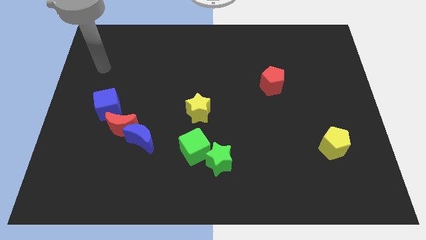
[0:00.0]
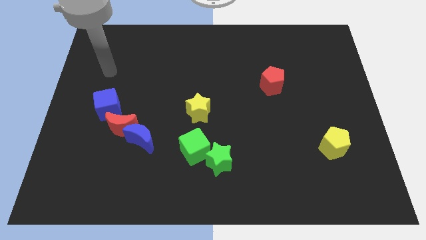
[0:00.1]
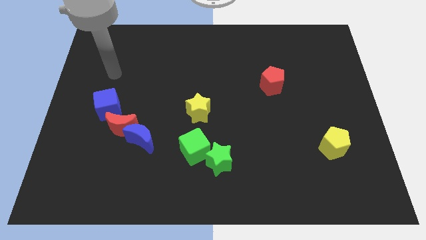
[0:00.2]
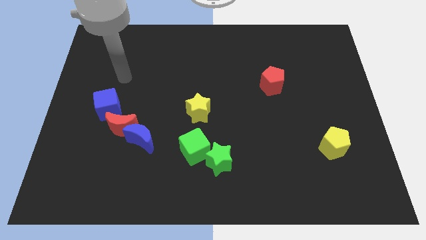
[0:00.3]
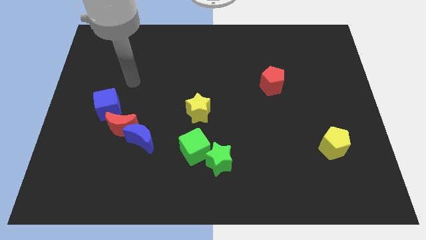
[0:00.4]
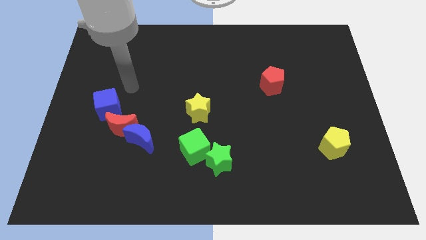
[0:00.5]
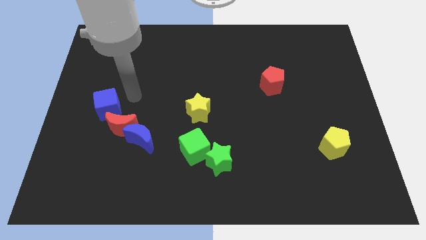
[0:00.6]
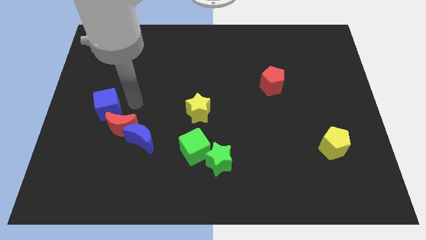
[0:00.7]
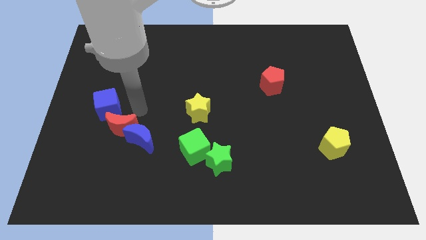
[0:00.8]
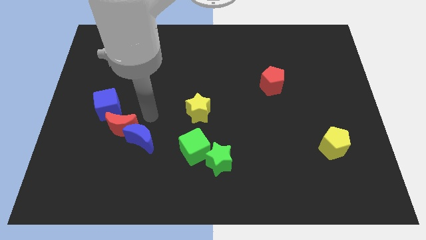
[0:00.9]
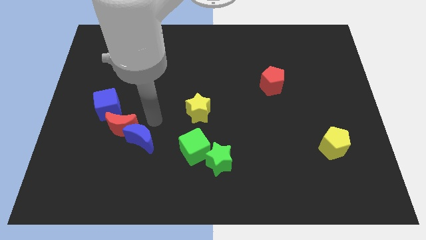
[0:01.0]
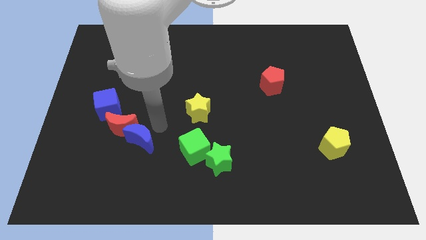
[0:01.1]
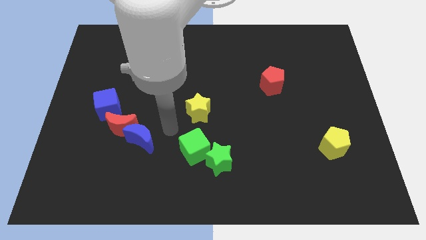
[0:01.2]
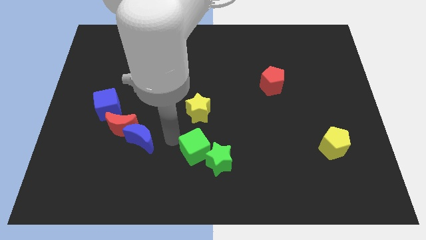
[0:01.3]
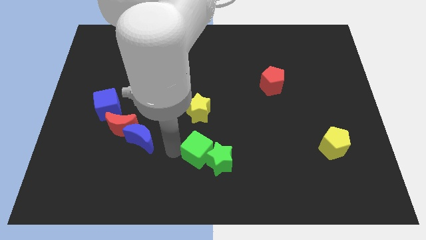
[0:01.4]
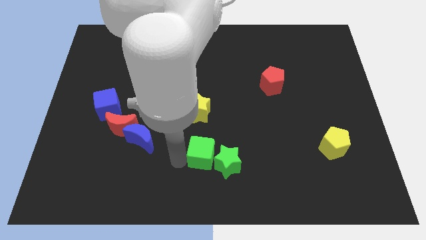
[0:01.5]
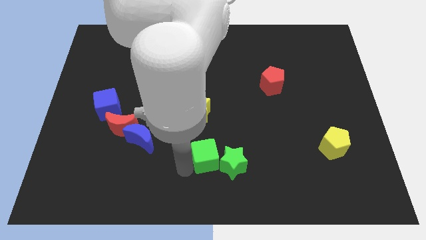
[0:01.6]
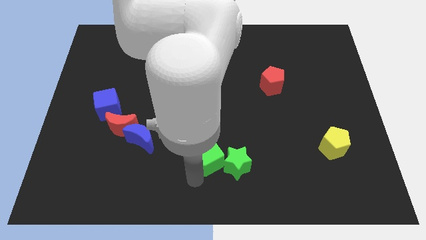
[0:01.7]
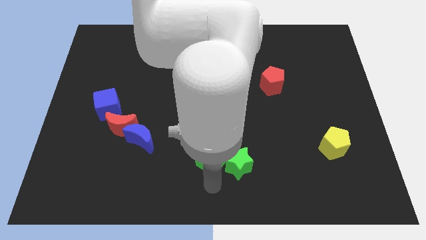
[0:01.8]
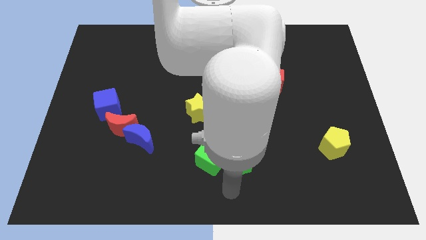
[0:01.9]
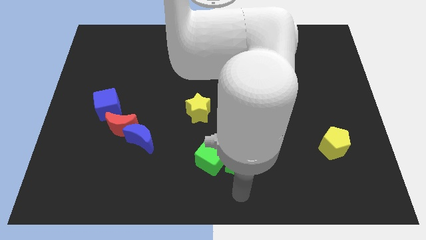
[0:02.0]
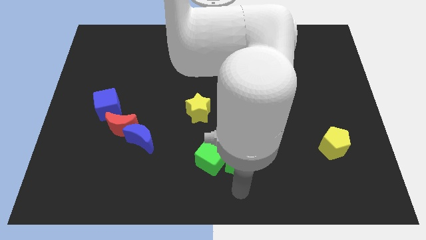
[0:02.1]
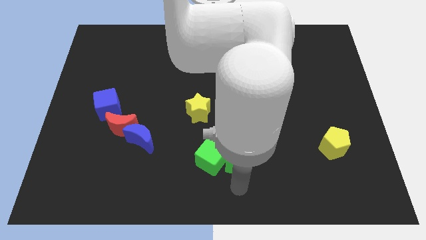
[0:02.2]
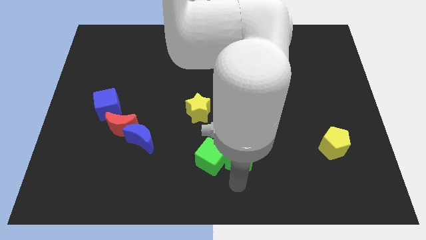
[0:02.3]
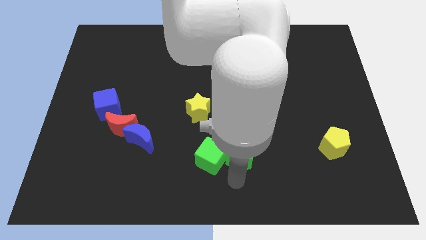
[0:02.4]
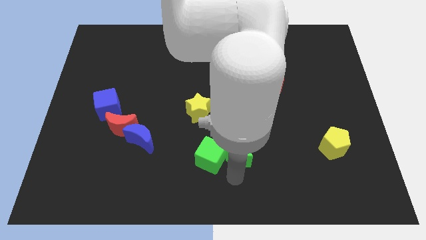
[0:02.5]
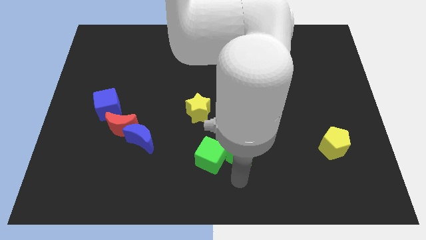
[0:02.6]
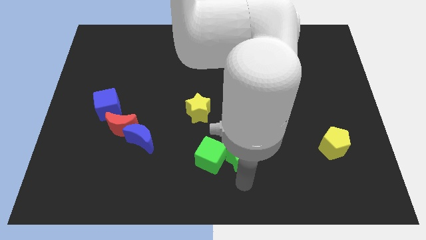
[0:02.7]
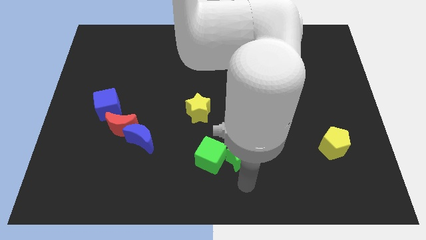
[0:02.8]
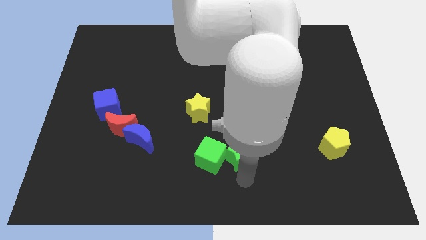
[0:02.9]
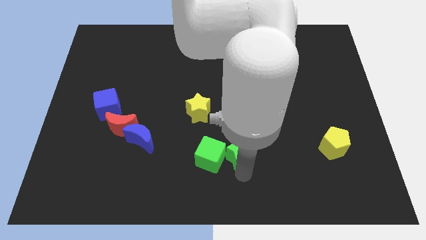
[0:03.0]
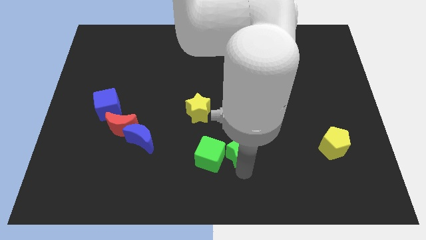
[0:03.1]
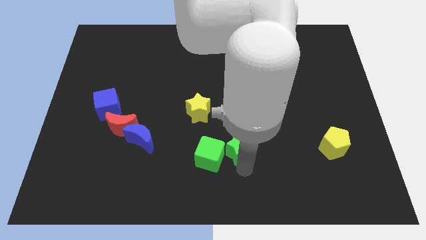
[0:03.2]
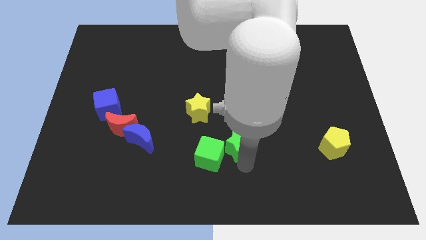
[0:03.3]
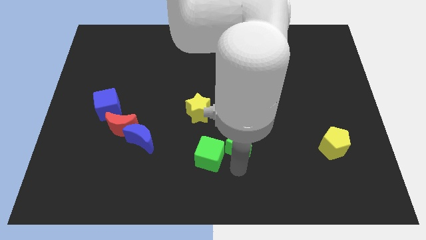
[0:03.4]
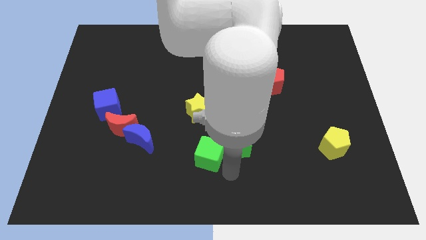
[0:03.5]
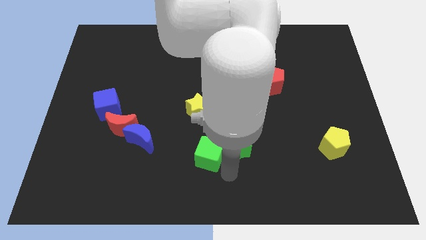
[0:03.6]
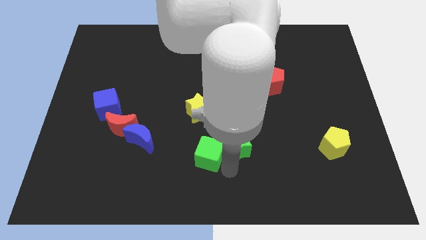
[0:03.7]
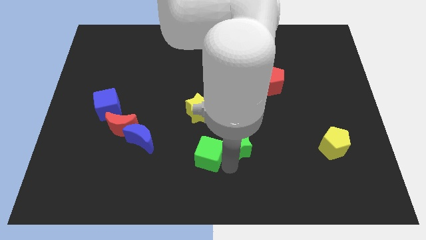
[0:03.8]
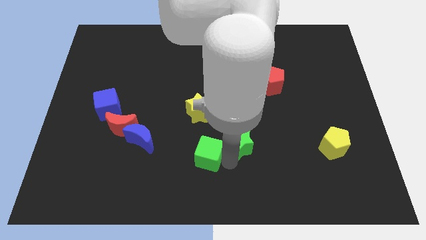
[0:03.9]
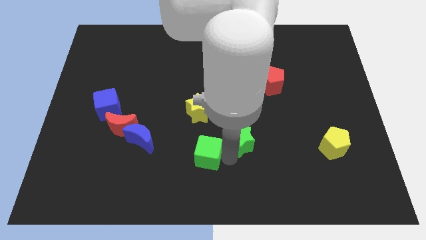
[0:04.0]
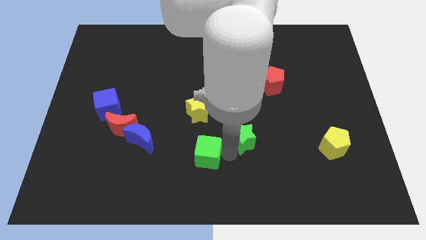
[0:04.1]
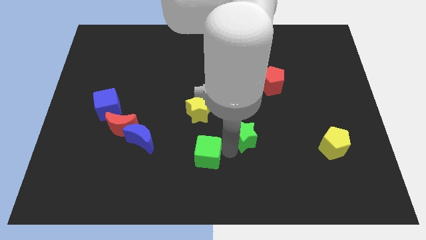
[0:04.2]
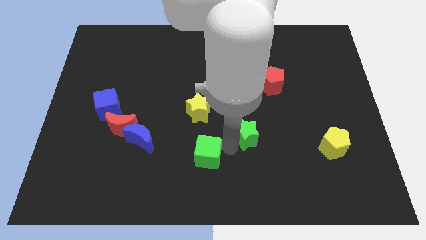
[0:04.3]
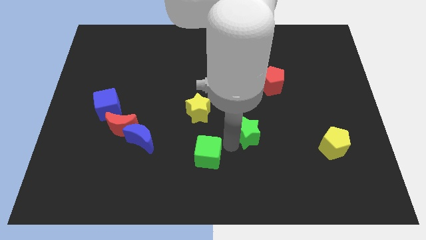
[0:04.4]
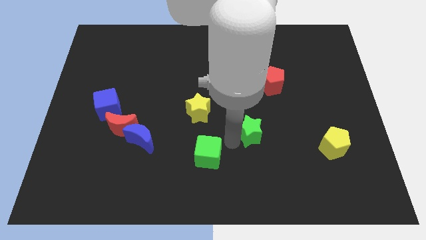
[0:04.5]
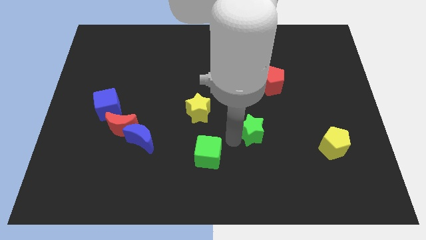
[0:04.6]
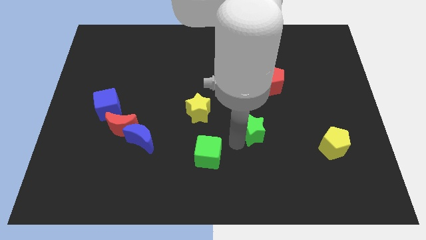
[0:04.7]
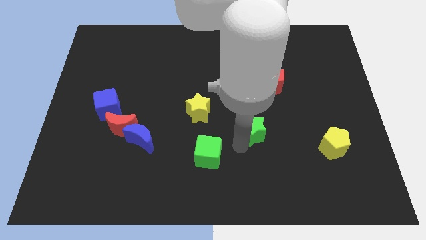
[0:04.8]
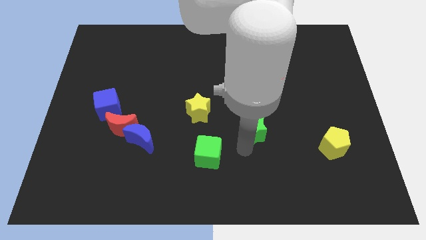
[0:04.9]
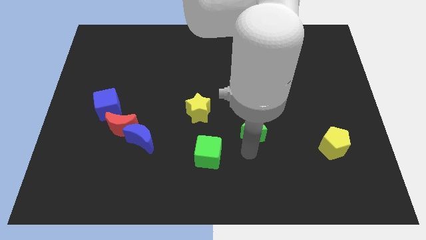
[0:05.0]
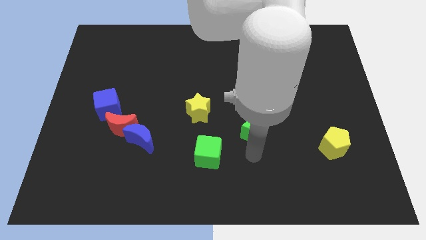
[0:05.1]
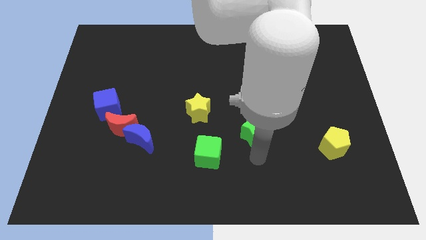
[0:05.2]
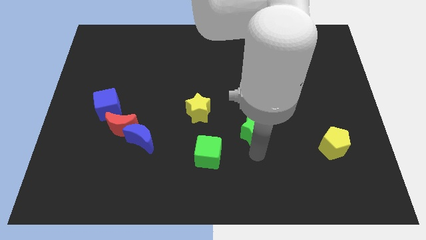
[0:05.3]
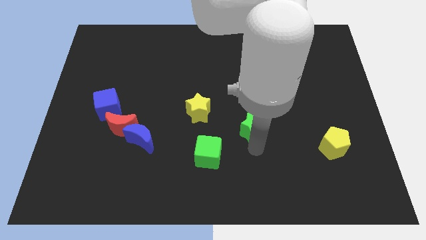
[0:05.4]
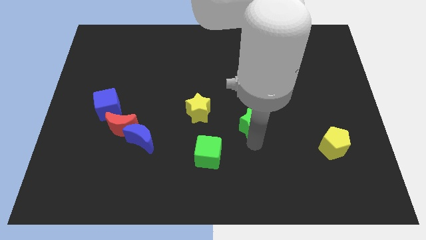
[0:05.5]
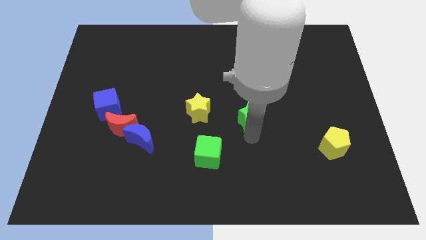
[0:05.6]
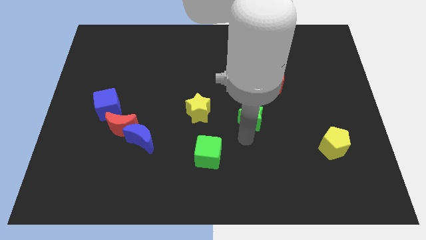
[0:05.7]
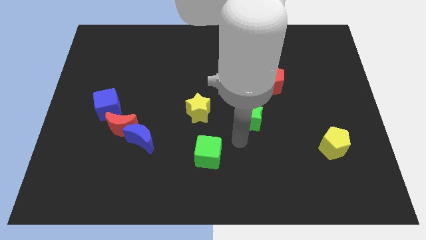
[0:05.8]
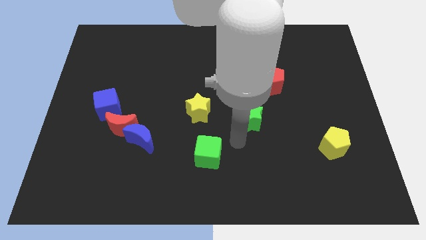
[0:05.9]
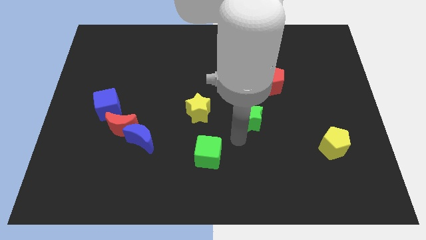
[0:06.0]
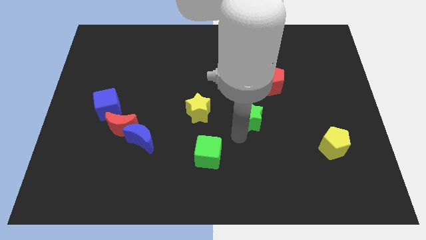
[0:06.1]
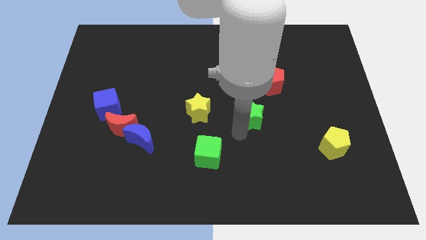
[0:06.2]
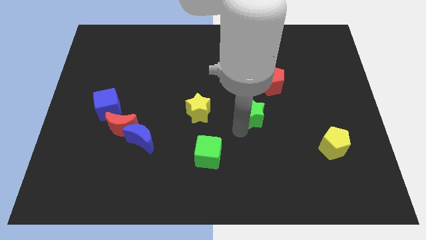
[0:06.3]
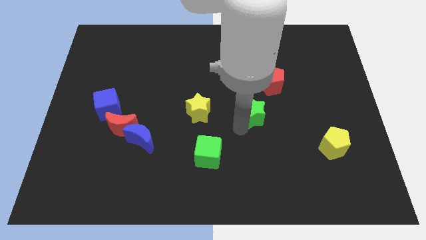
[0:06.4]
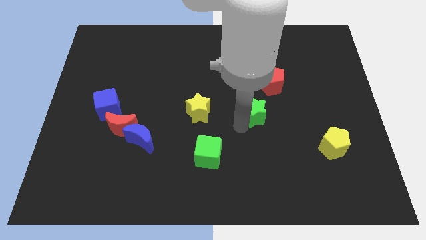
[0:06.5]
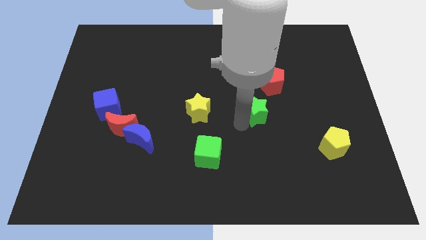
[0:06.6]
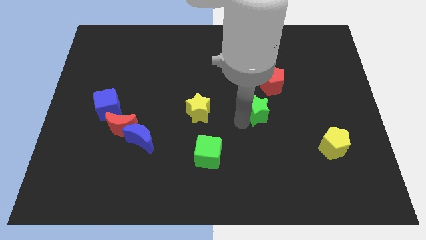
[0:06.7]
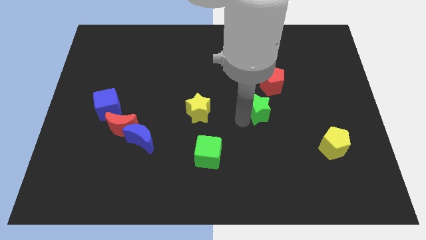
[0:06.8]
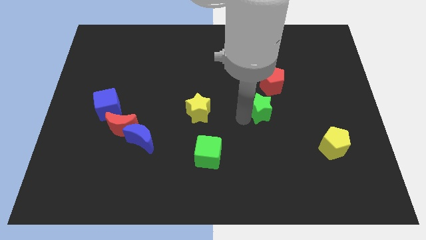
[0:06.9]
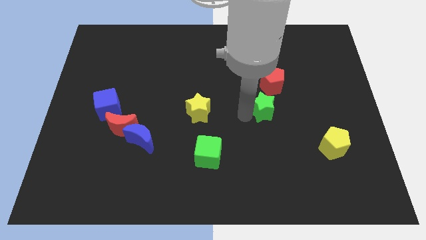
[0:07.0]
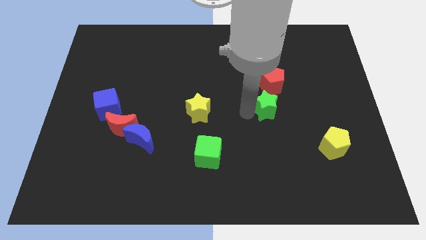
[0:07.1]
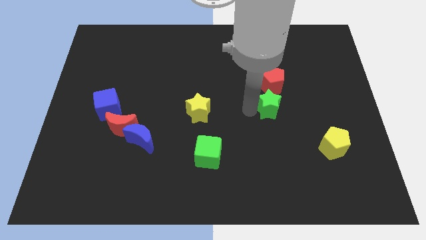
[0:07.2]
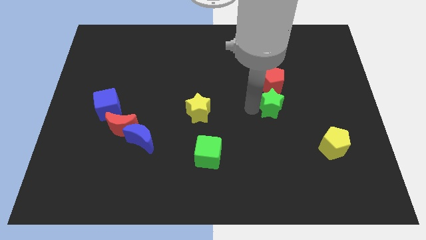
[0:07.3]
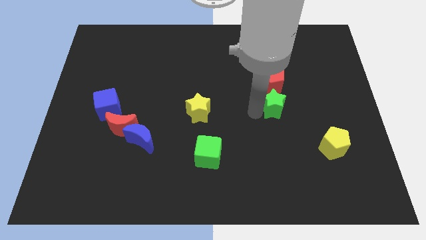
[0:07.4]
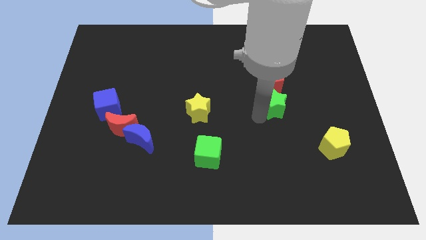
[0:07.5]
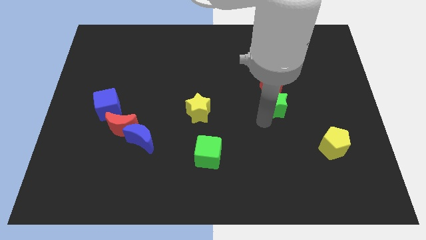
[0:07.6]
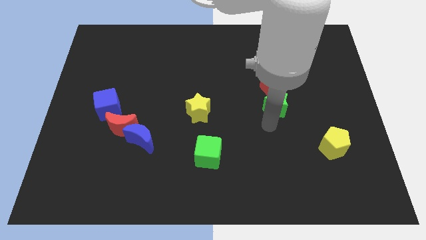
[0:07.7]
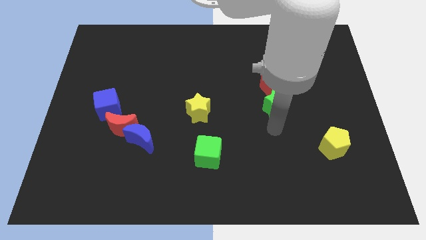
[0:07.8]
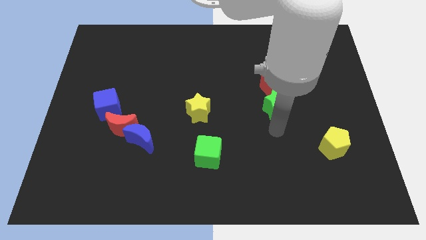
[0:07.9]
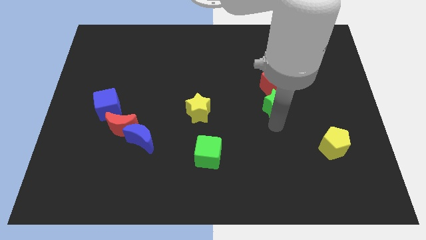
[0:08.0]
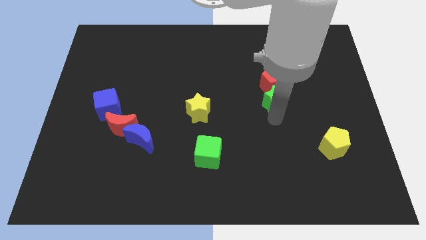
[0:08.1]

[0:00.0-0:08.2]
push the green star close to the red pentagon
